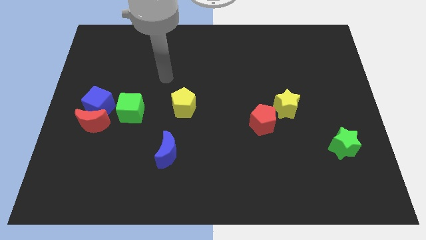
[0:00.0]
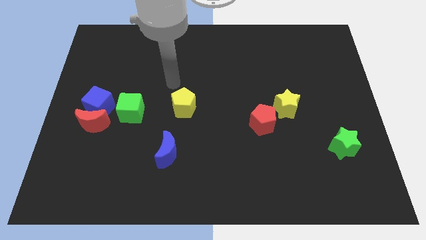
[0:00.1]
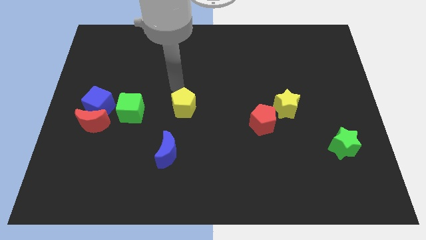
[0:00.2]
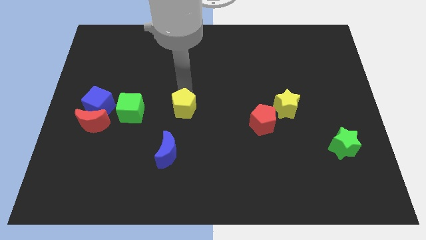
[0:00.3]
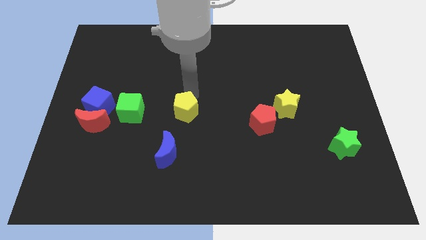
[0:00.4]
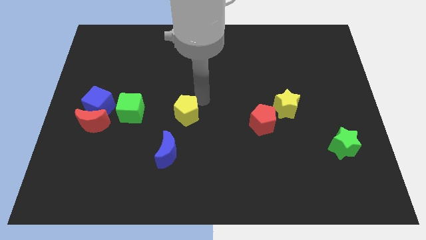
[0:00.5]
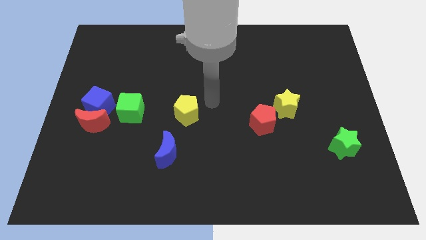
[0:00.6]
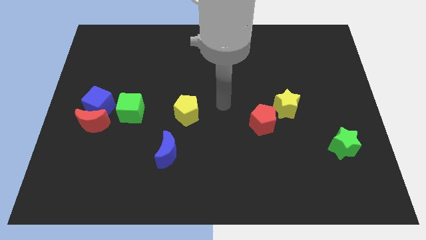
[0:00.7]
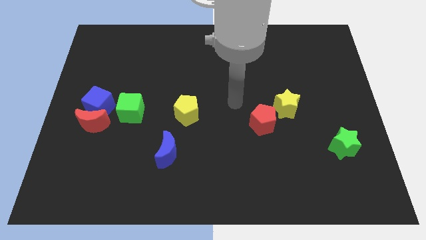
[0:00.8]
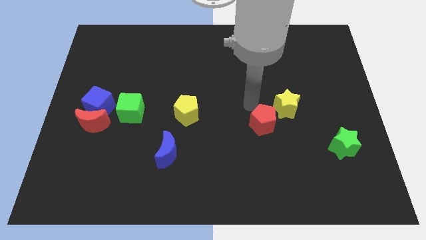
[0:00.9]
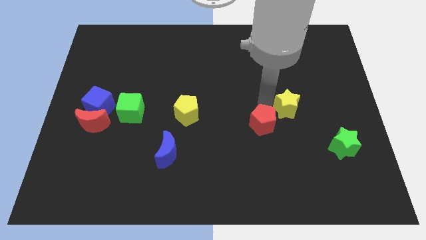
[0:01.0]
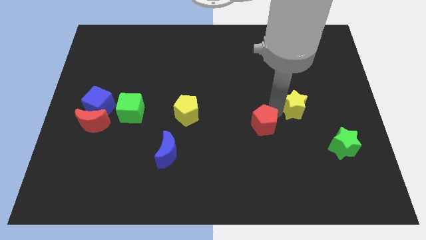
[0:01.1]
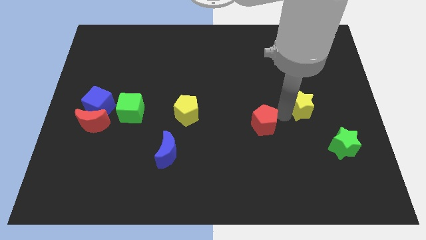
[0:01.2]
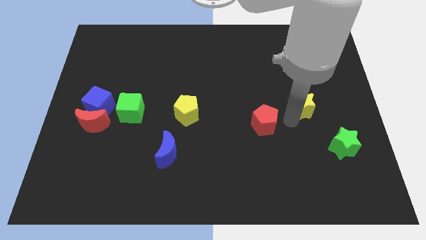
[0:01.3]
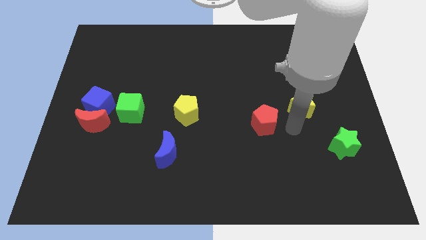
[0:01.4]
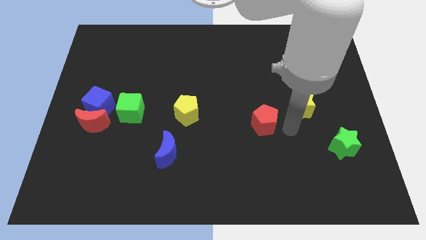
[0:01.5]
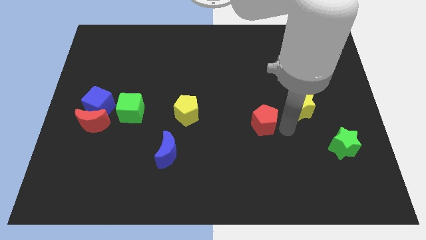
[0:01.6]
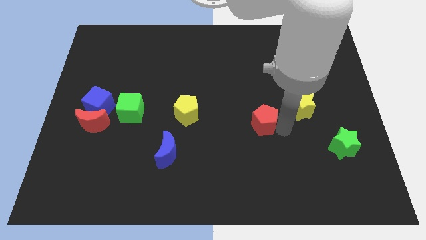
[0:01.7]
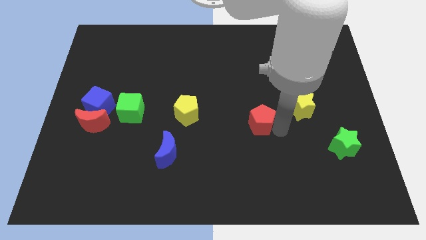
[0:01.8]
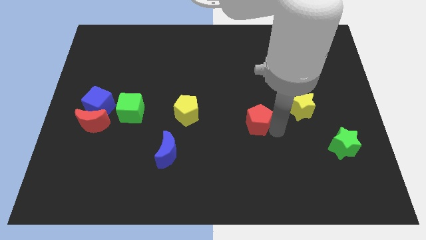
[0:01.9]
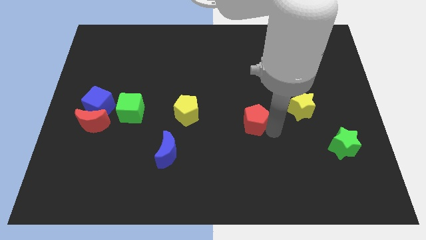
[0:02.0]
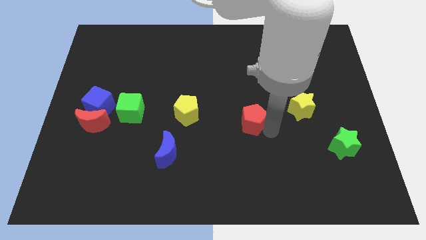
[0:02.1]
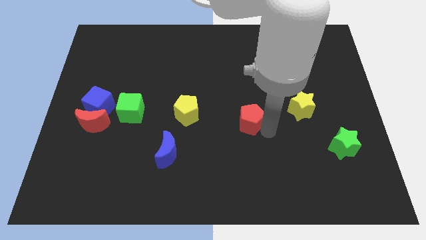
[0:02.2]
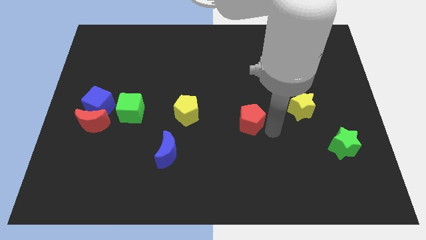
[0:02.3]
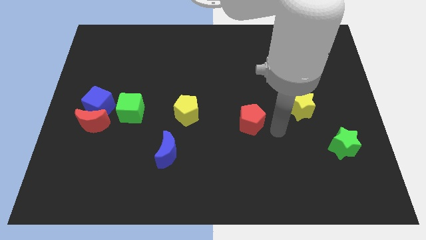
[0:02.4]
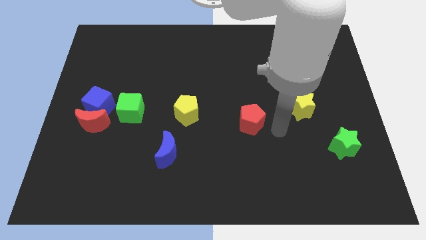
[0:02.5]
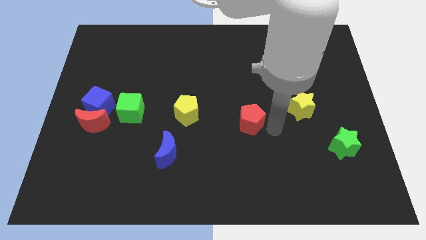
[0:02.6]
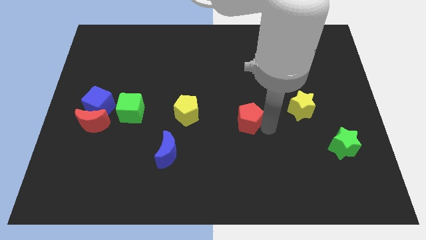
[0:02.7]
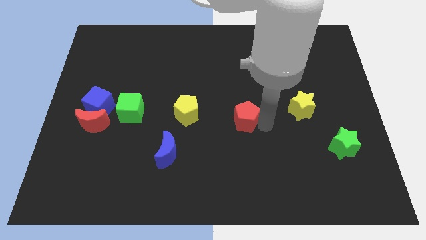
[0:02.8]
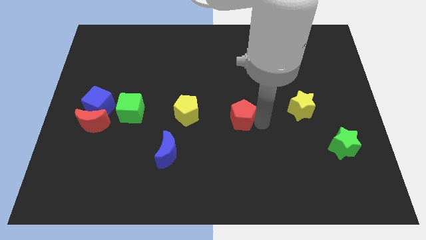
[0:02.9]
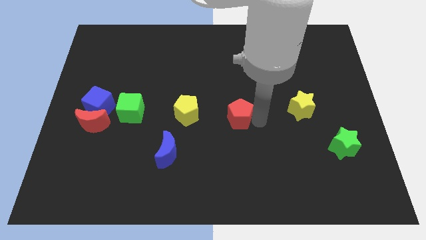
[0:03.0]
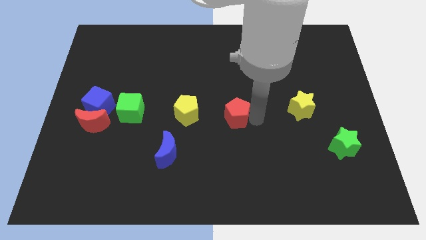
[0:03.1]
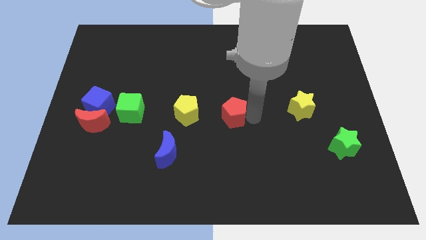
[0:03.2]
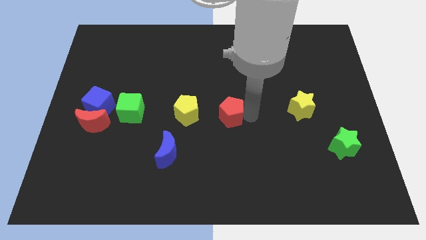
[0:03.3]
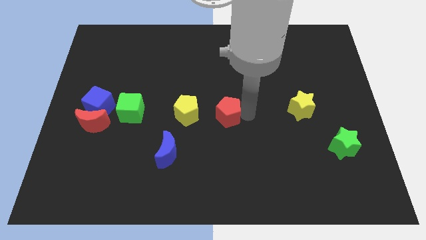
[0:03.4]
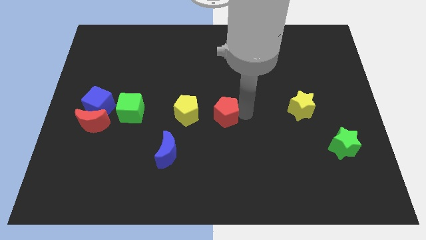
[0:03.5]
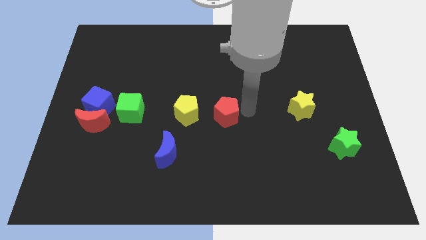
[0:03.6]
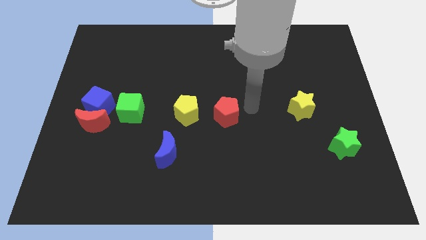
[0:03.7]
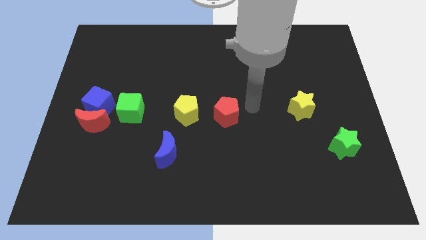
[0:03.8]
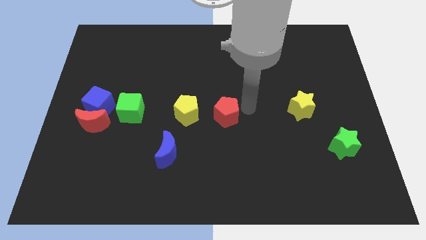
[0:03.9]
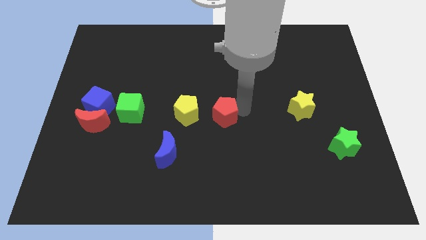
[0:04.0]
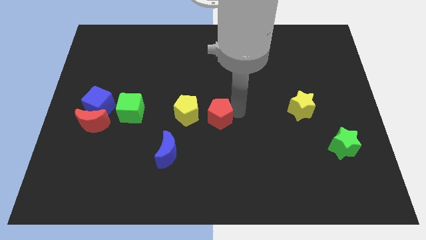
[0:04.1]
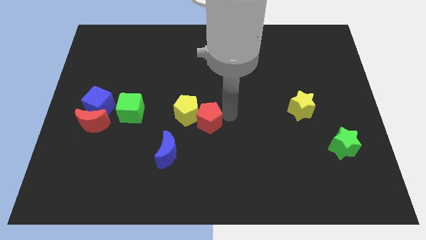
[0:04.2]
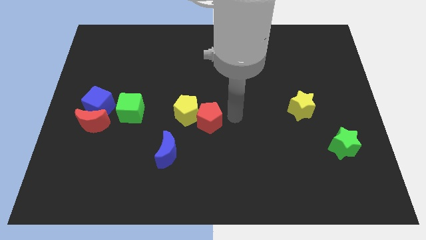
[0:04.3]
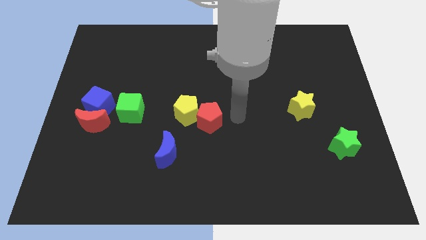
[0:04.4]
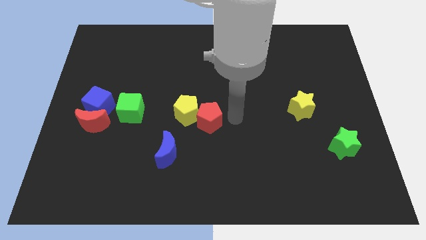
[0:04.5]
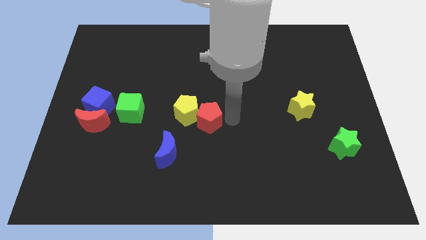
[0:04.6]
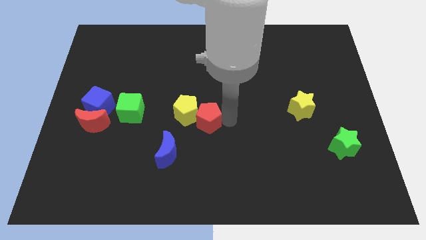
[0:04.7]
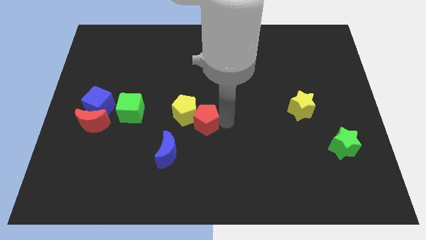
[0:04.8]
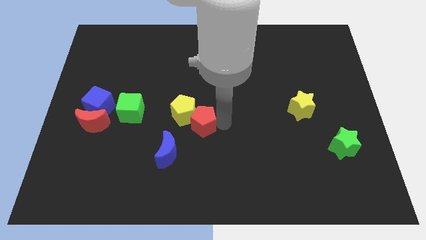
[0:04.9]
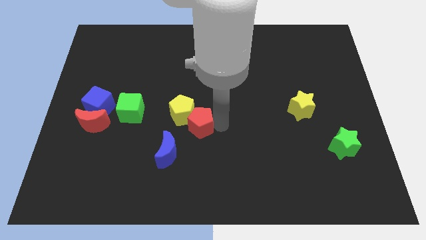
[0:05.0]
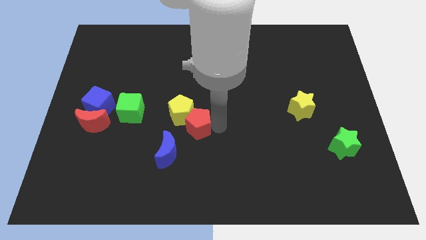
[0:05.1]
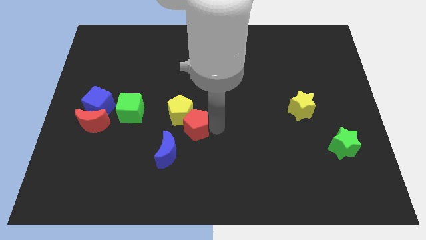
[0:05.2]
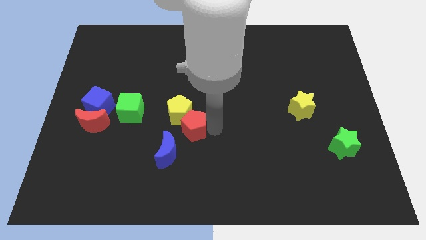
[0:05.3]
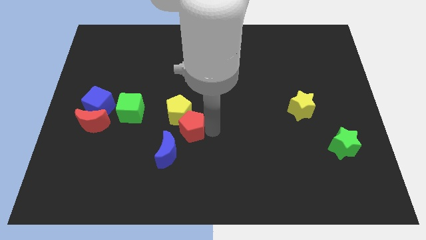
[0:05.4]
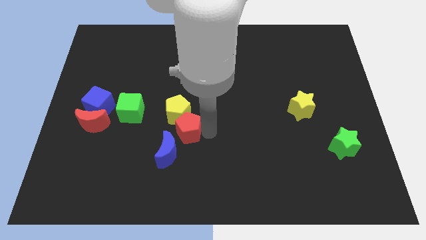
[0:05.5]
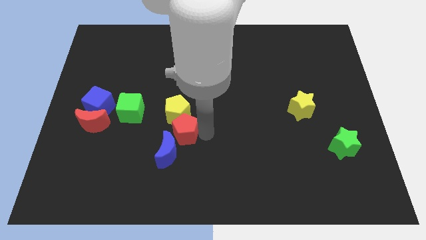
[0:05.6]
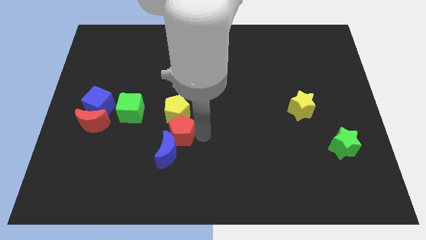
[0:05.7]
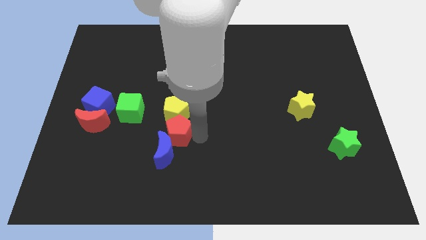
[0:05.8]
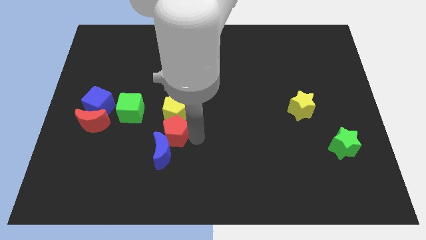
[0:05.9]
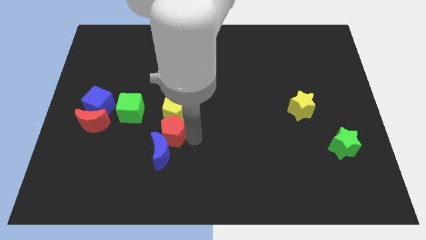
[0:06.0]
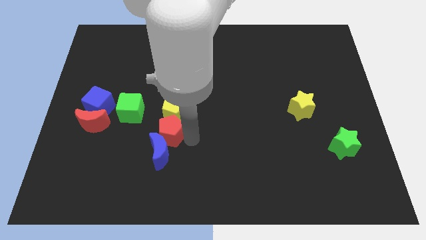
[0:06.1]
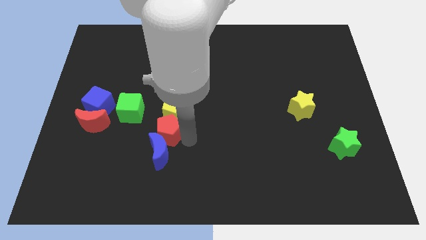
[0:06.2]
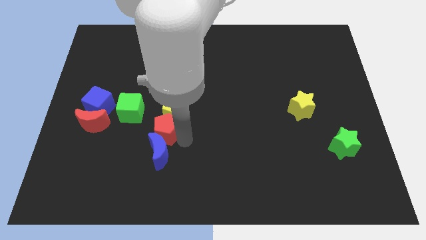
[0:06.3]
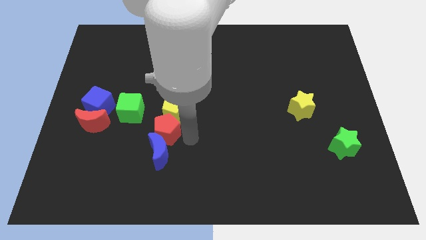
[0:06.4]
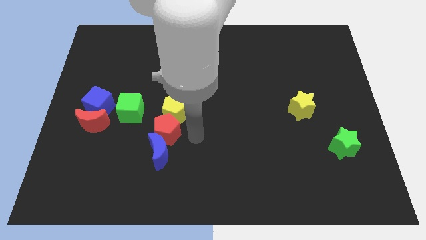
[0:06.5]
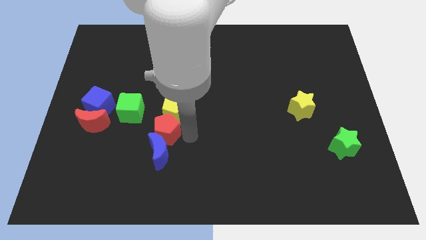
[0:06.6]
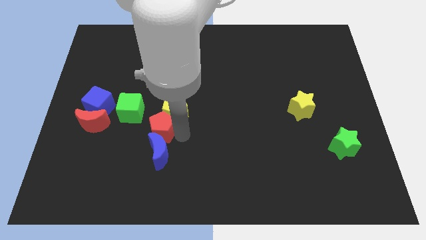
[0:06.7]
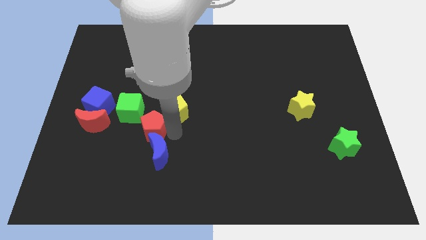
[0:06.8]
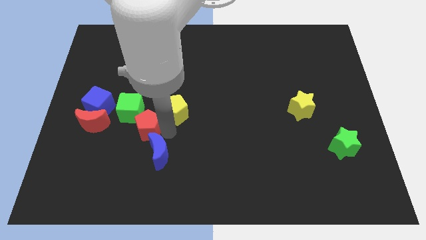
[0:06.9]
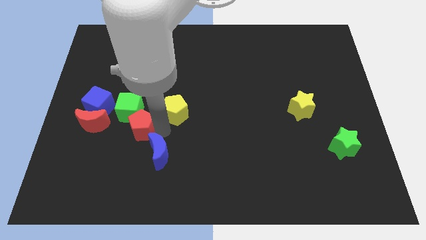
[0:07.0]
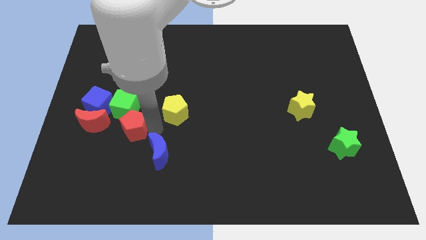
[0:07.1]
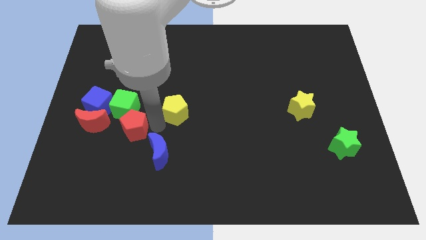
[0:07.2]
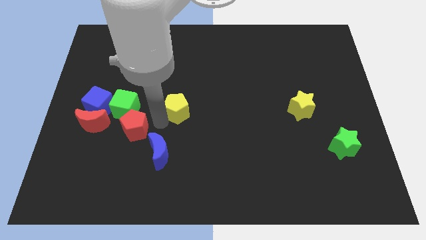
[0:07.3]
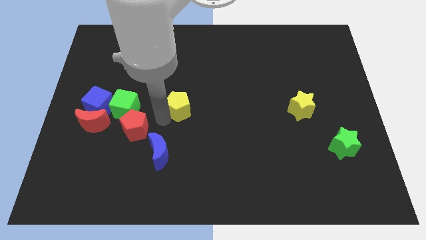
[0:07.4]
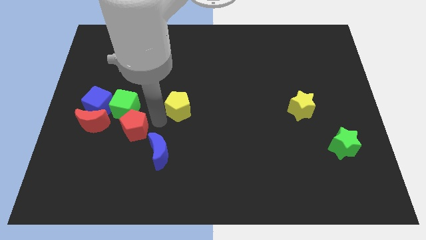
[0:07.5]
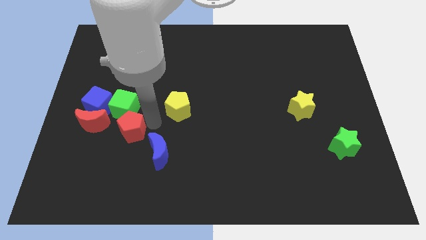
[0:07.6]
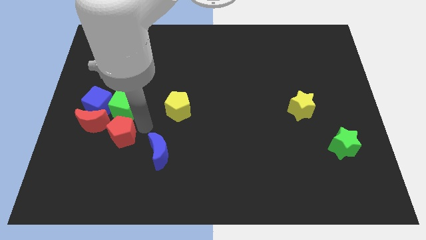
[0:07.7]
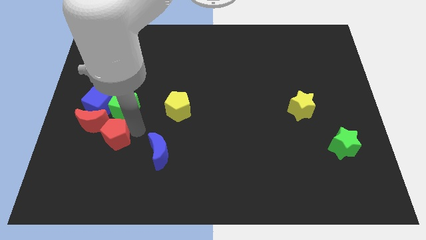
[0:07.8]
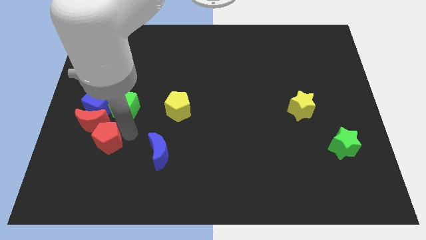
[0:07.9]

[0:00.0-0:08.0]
push the red pentagon to the bottom side of the blue cube
